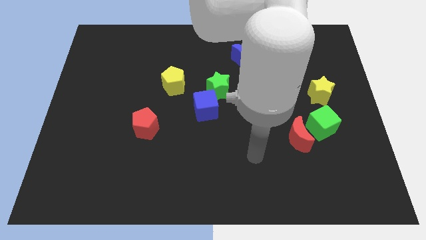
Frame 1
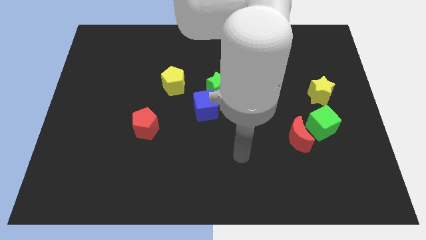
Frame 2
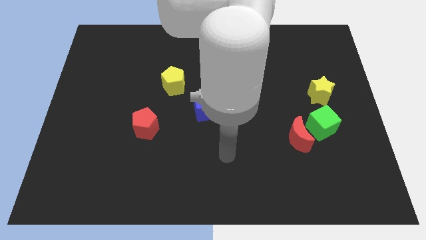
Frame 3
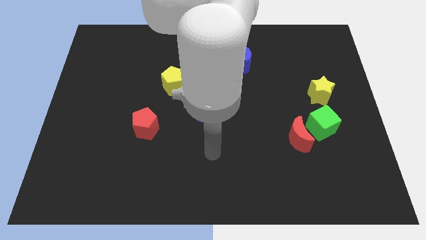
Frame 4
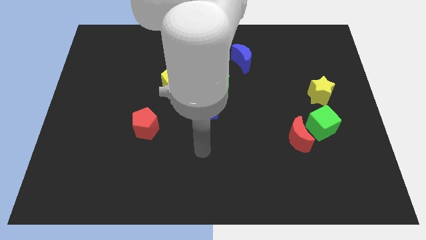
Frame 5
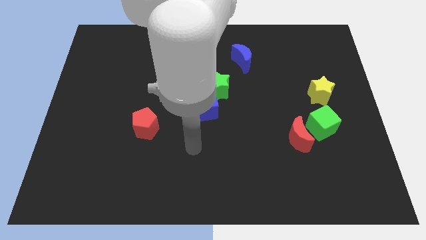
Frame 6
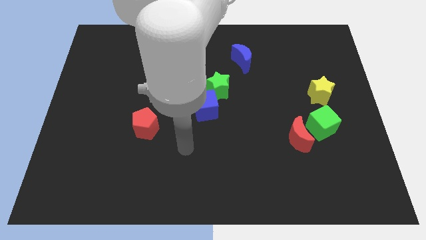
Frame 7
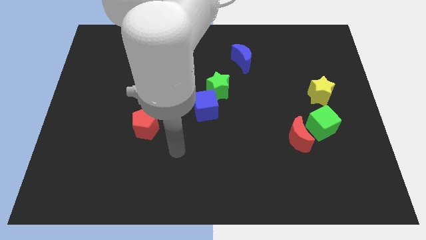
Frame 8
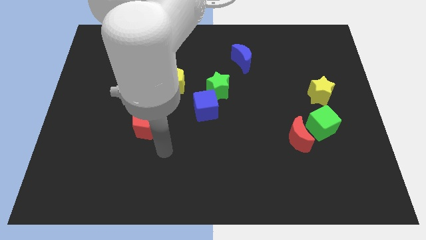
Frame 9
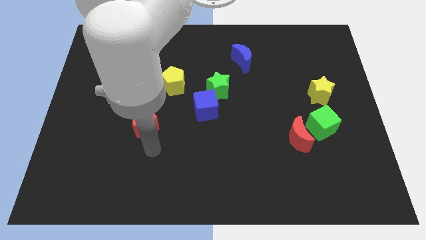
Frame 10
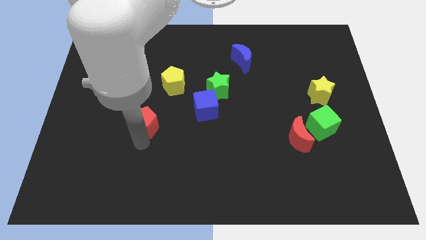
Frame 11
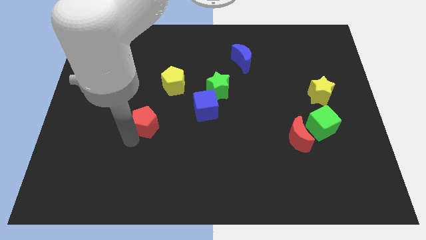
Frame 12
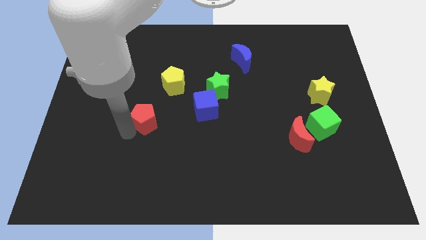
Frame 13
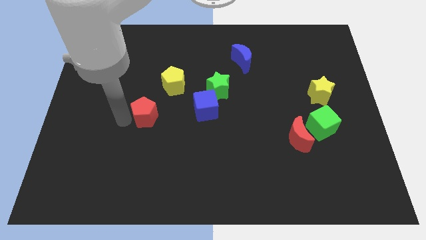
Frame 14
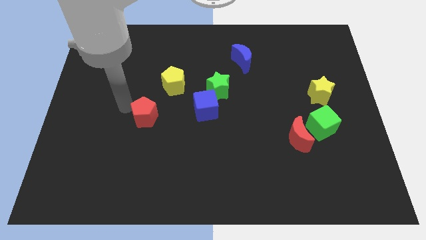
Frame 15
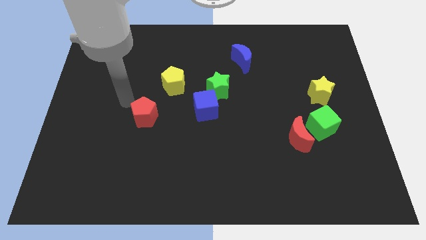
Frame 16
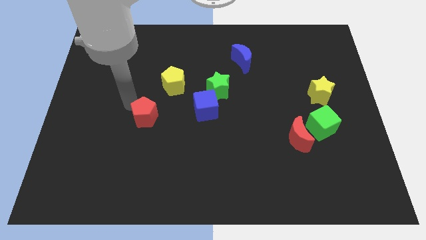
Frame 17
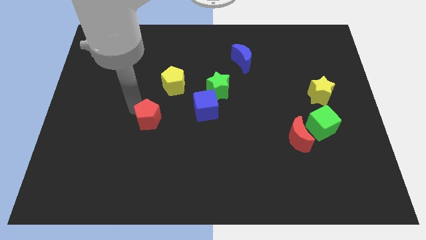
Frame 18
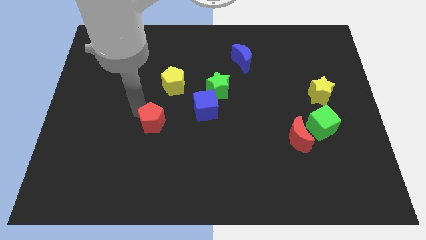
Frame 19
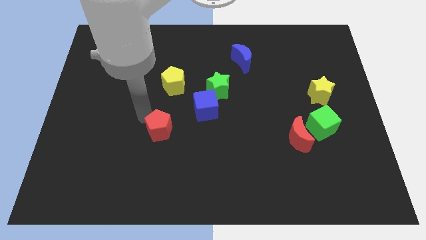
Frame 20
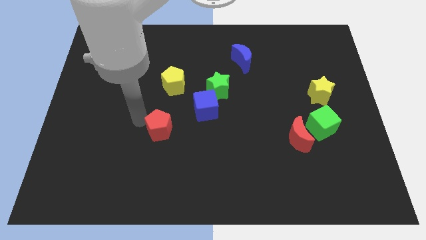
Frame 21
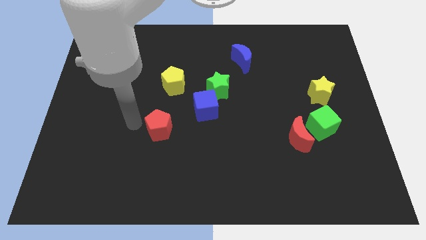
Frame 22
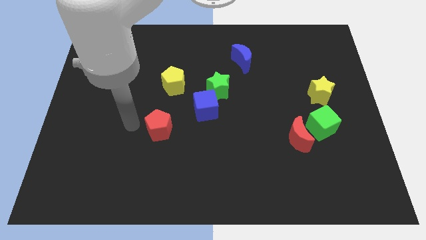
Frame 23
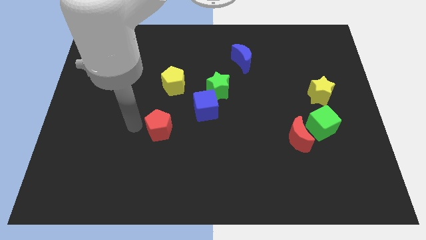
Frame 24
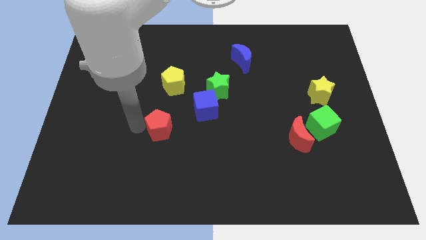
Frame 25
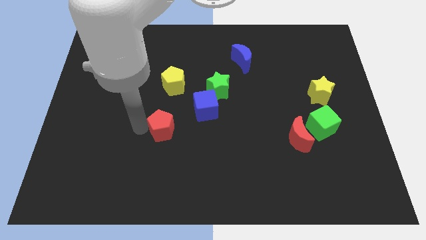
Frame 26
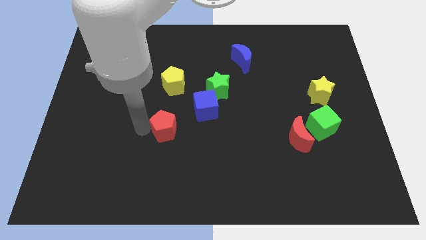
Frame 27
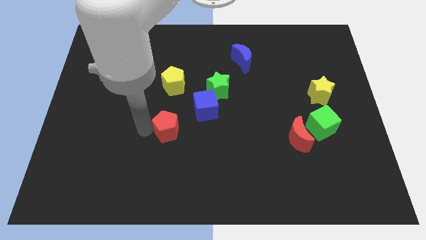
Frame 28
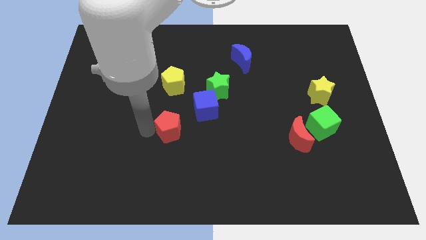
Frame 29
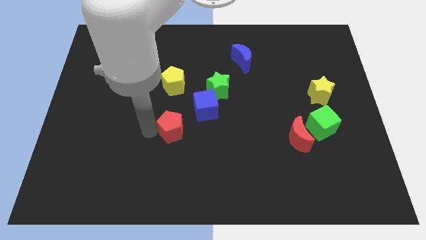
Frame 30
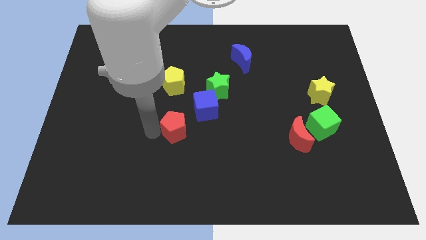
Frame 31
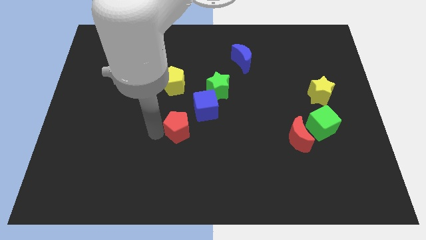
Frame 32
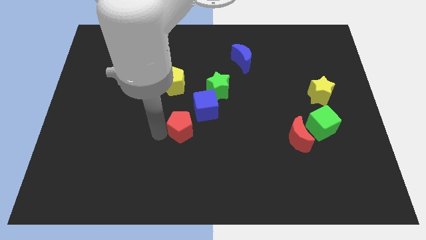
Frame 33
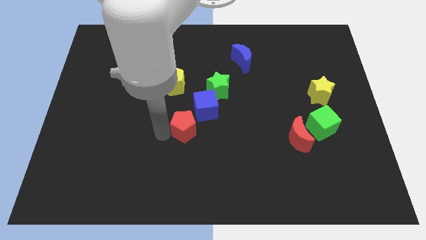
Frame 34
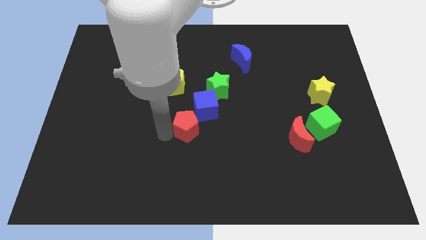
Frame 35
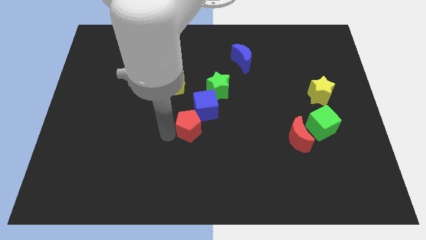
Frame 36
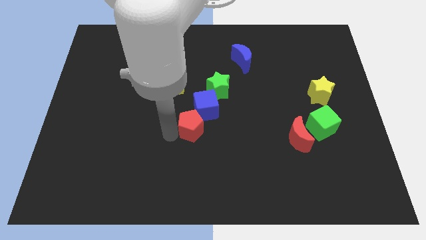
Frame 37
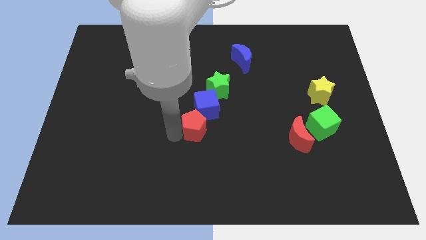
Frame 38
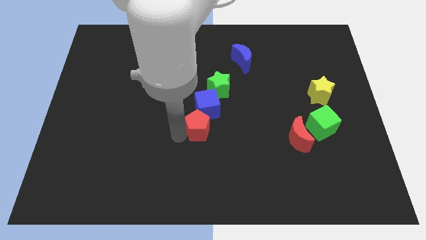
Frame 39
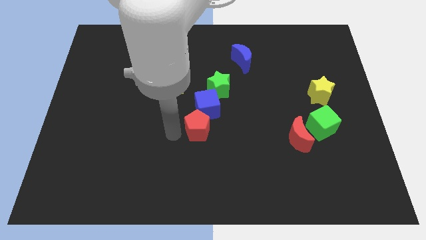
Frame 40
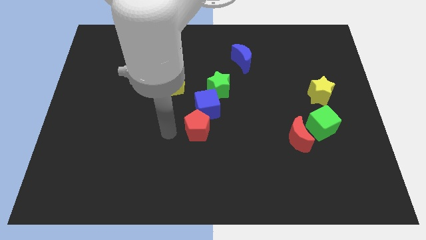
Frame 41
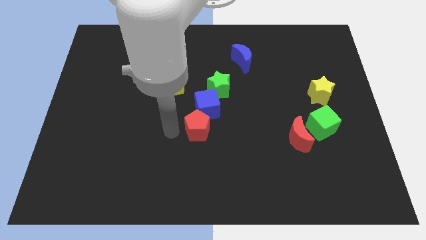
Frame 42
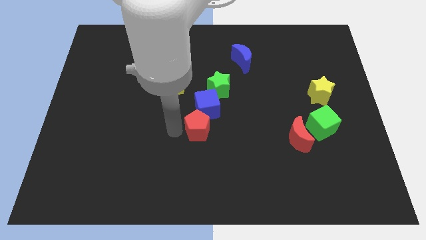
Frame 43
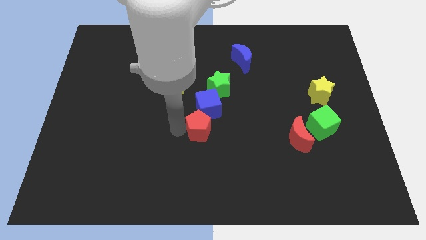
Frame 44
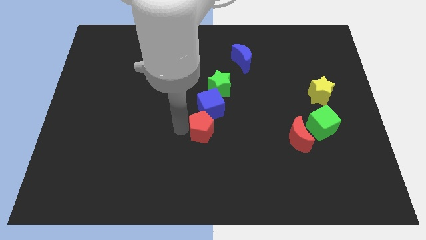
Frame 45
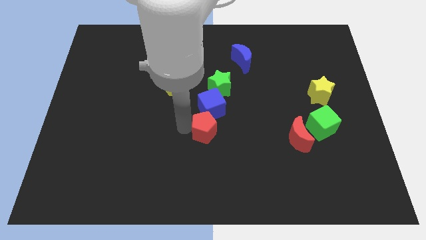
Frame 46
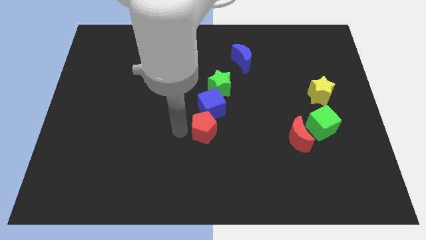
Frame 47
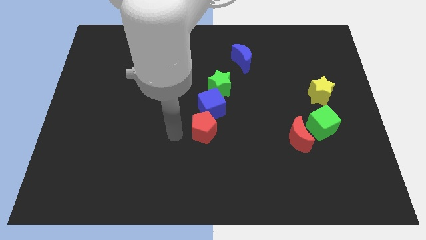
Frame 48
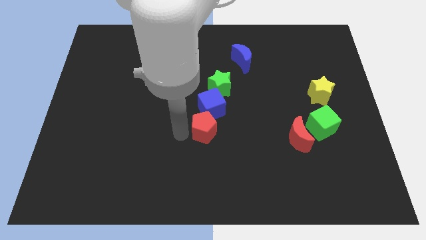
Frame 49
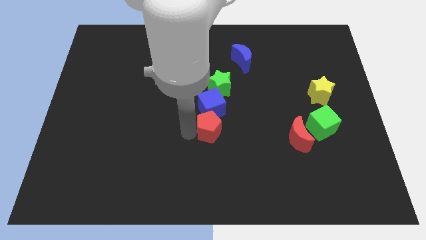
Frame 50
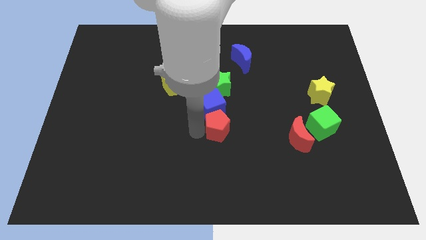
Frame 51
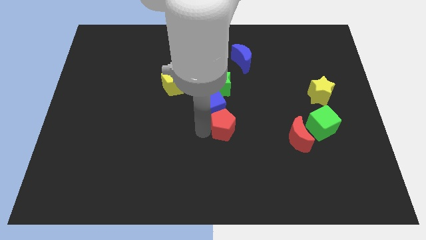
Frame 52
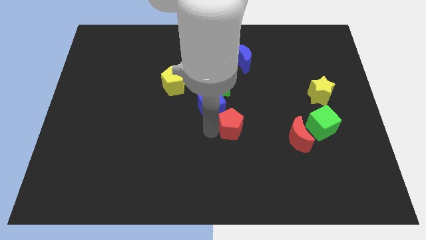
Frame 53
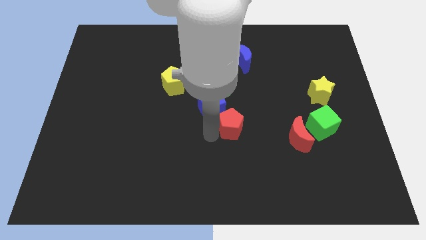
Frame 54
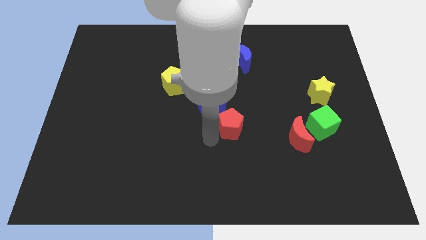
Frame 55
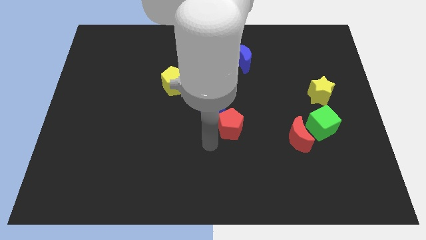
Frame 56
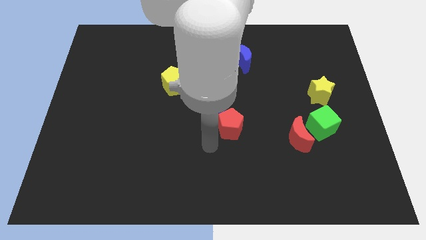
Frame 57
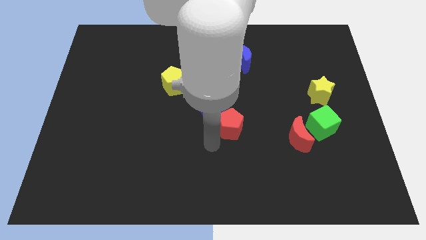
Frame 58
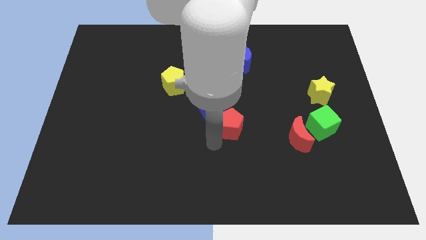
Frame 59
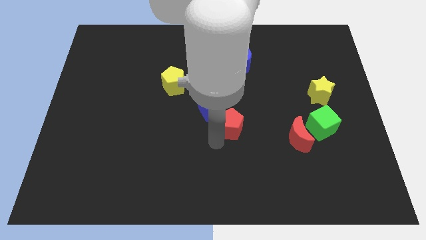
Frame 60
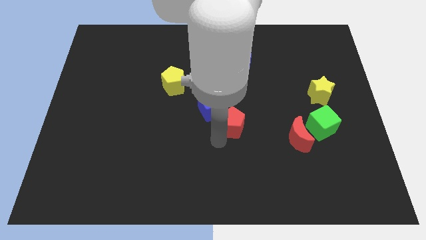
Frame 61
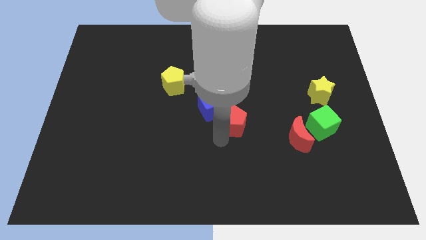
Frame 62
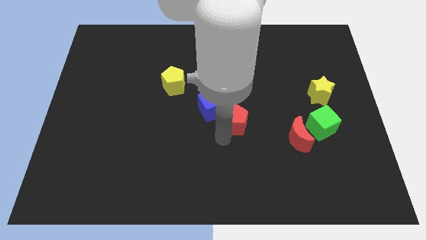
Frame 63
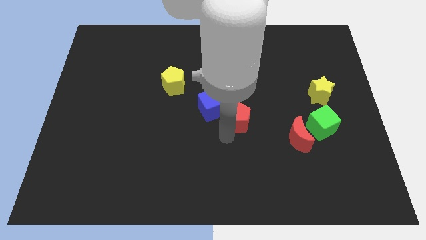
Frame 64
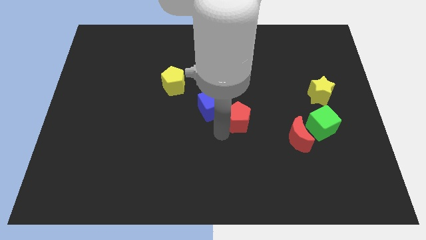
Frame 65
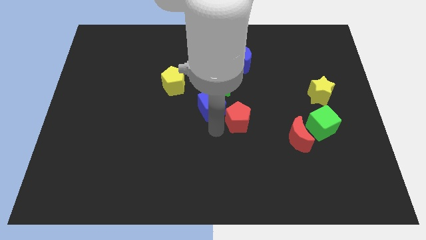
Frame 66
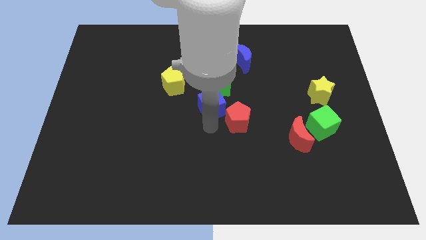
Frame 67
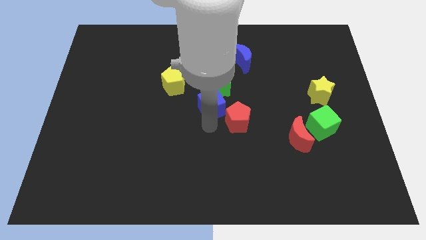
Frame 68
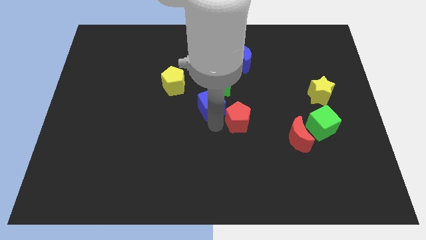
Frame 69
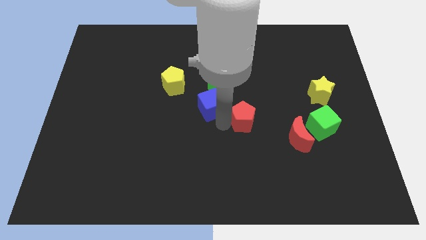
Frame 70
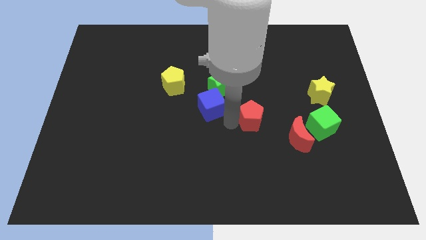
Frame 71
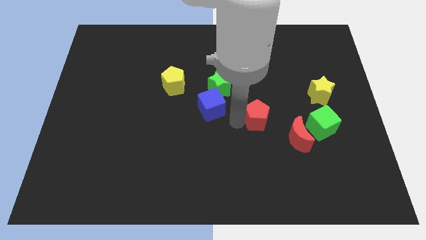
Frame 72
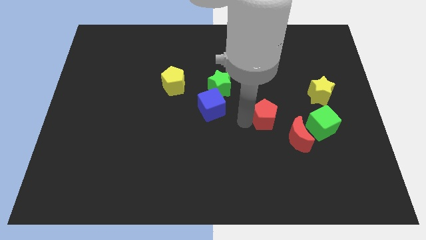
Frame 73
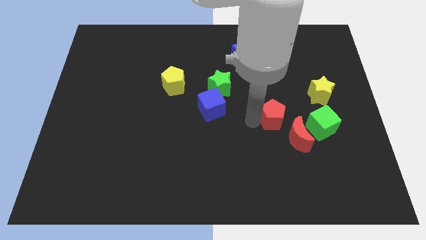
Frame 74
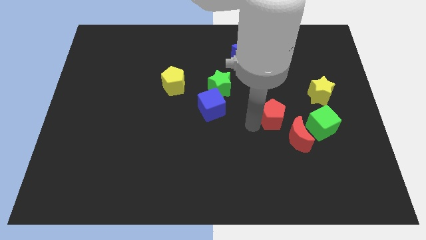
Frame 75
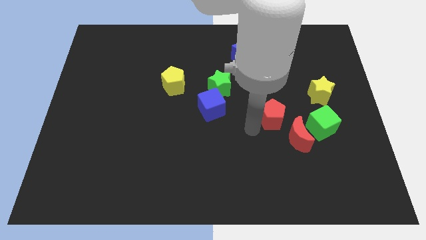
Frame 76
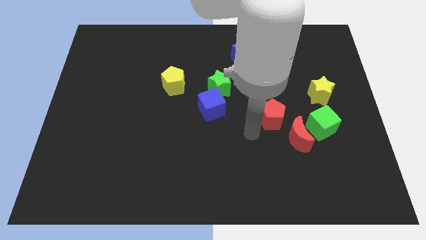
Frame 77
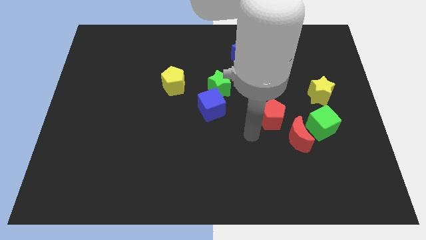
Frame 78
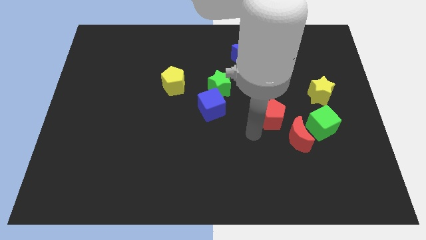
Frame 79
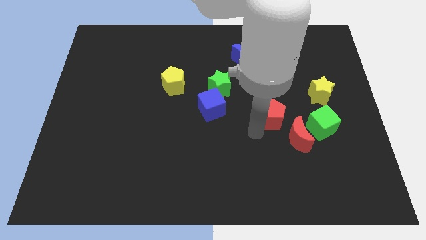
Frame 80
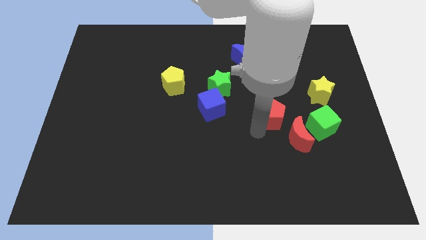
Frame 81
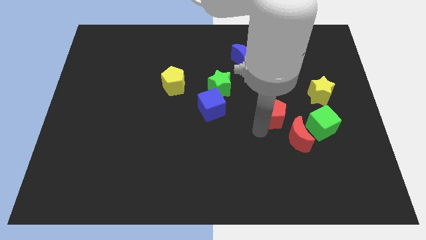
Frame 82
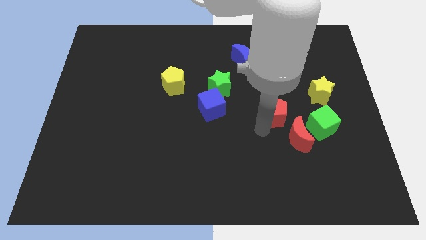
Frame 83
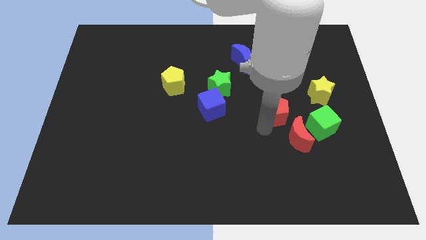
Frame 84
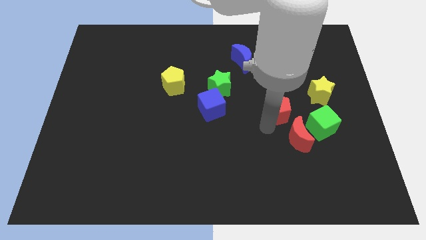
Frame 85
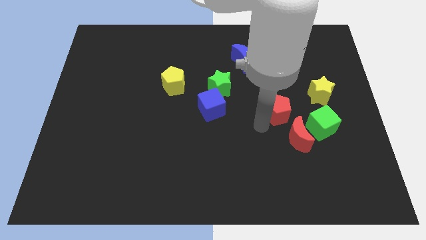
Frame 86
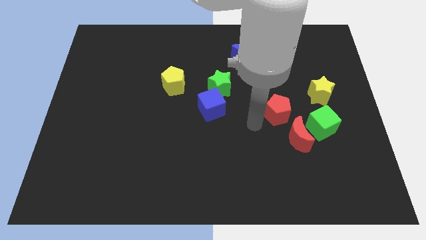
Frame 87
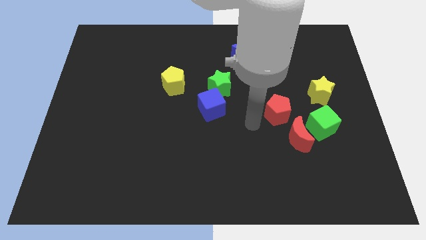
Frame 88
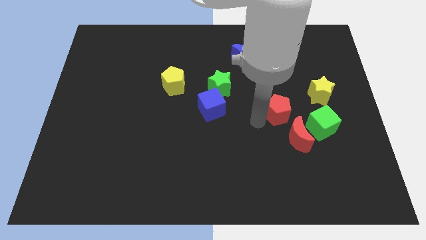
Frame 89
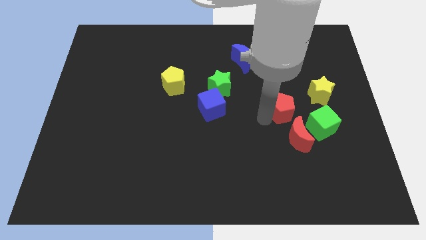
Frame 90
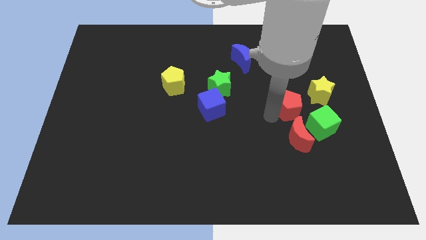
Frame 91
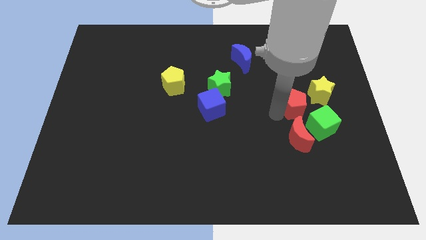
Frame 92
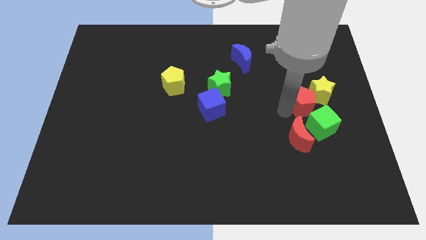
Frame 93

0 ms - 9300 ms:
put the red pentagon close to the yellow star
